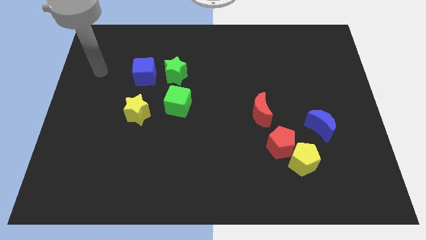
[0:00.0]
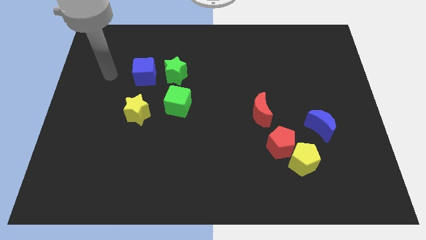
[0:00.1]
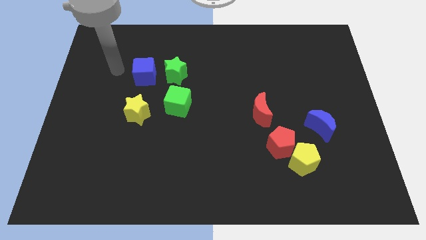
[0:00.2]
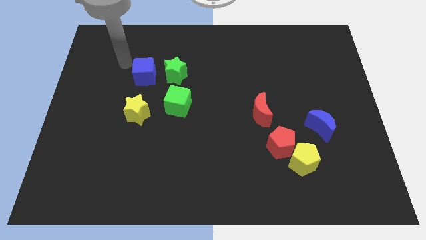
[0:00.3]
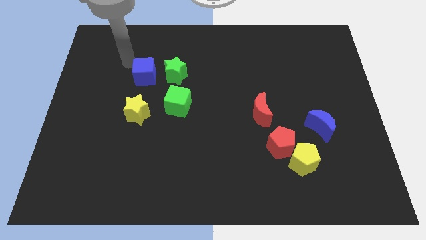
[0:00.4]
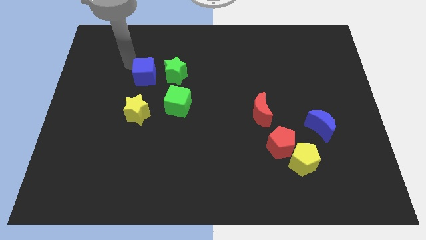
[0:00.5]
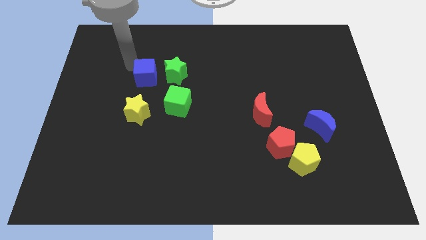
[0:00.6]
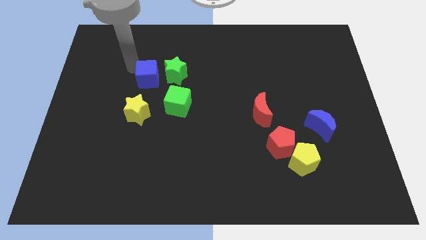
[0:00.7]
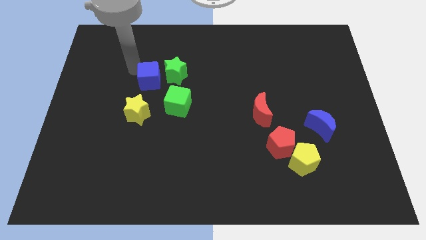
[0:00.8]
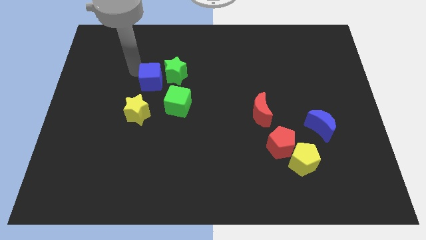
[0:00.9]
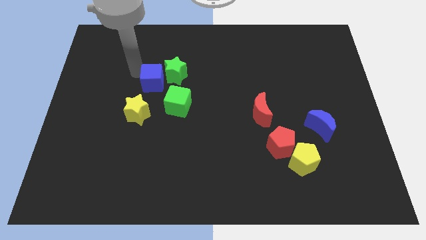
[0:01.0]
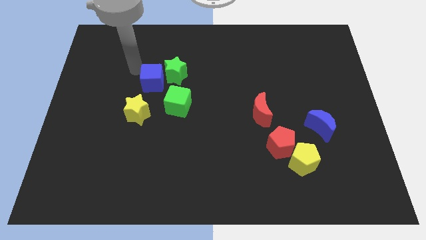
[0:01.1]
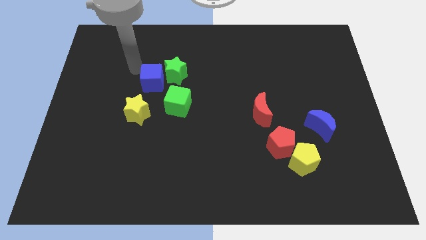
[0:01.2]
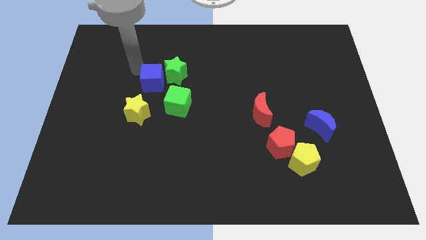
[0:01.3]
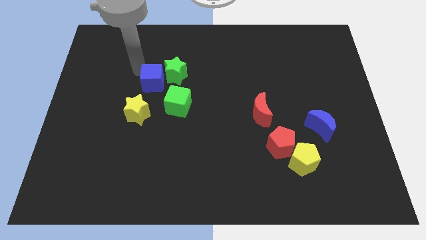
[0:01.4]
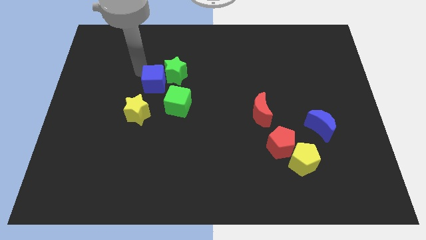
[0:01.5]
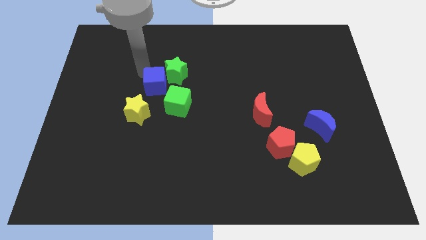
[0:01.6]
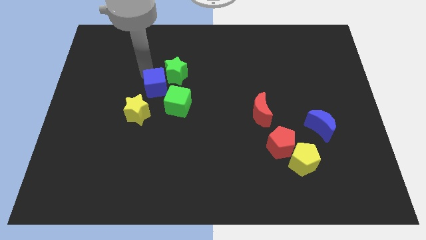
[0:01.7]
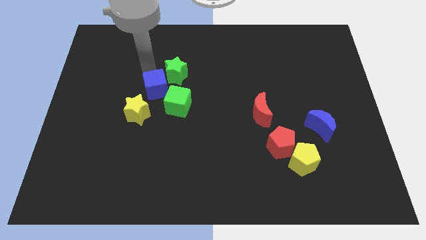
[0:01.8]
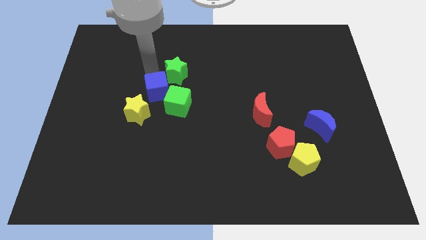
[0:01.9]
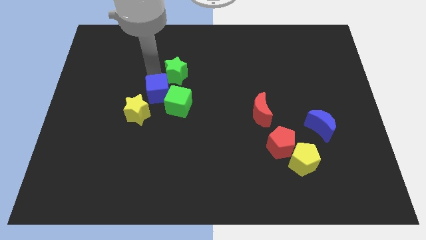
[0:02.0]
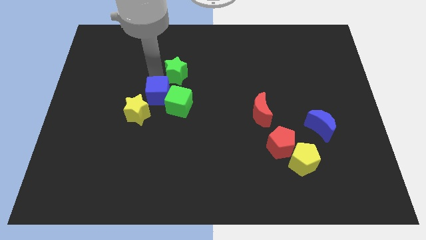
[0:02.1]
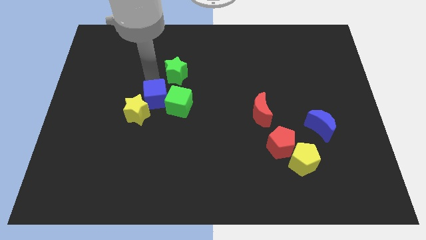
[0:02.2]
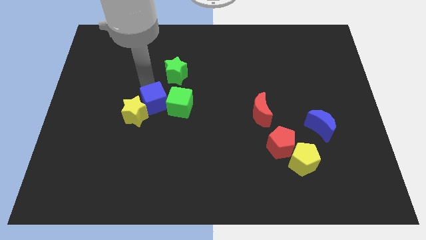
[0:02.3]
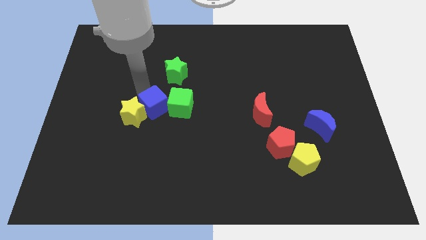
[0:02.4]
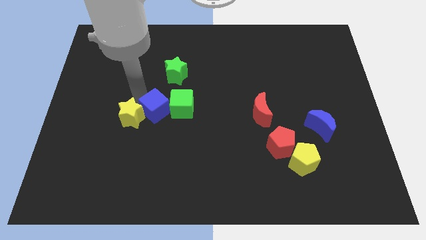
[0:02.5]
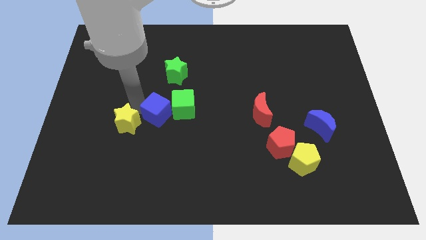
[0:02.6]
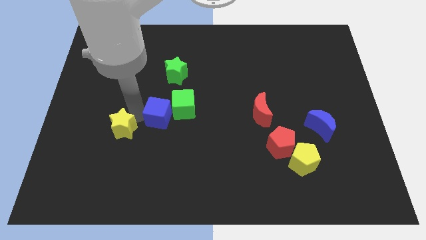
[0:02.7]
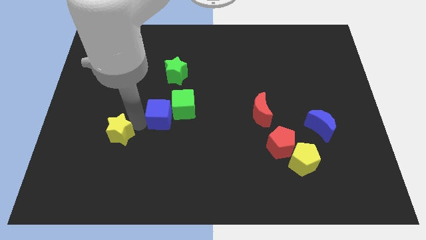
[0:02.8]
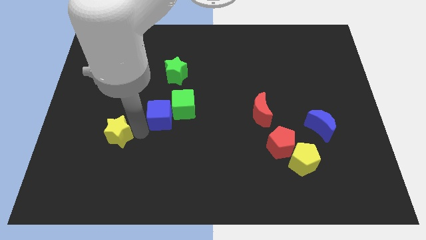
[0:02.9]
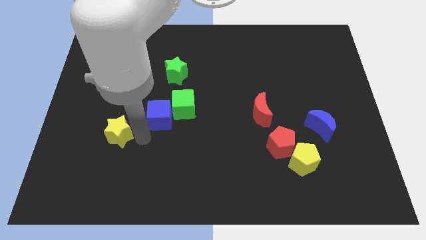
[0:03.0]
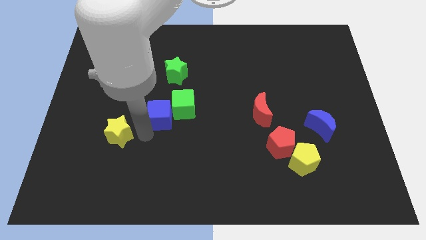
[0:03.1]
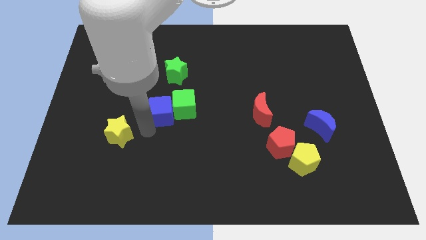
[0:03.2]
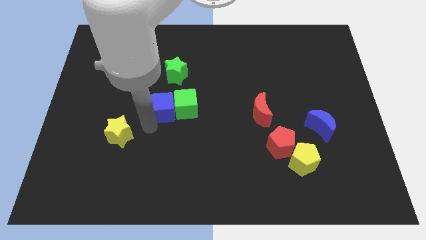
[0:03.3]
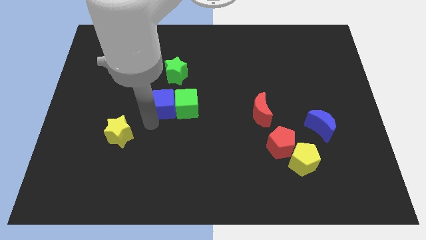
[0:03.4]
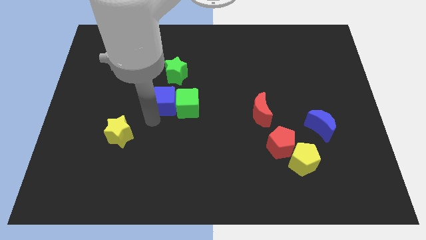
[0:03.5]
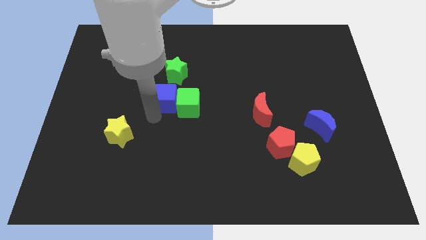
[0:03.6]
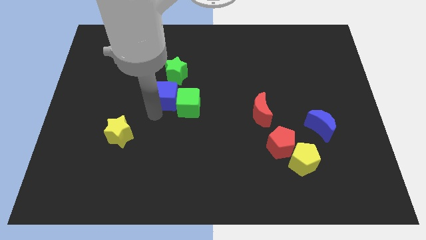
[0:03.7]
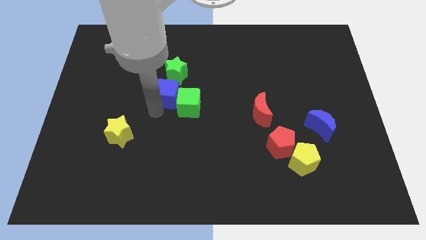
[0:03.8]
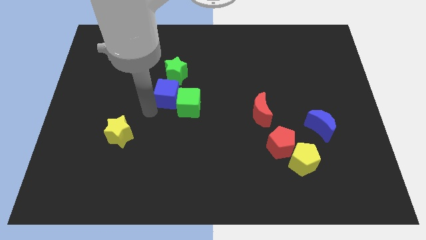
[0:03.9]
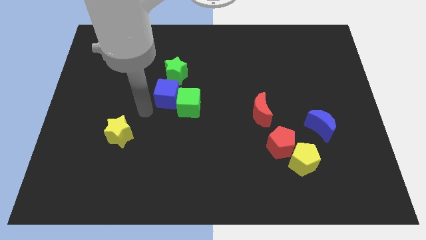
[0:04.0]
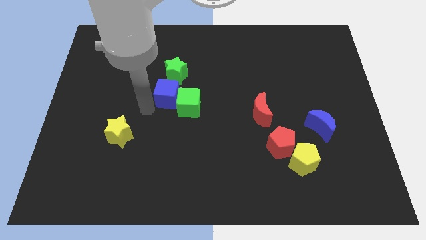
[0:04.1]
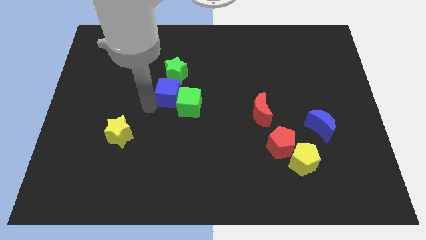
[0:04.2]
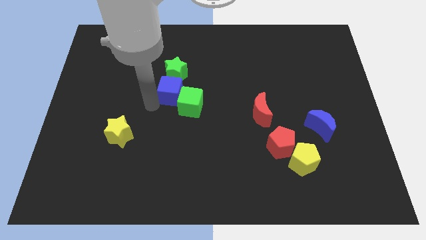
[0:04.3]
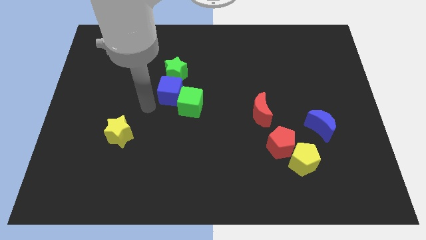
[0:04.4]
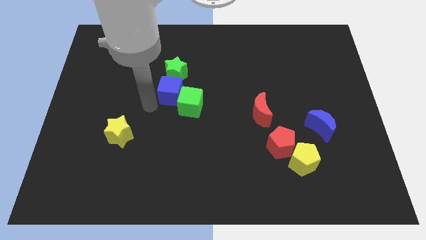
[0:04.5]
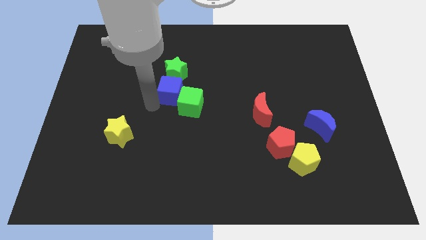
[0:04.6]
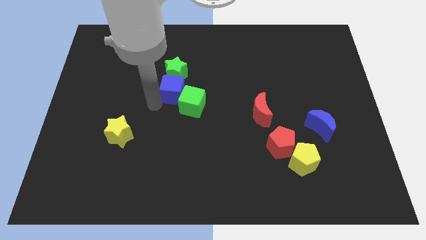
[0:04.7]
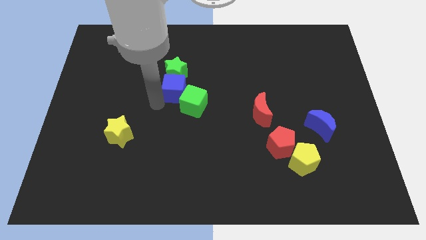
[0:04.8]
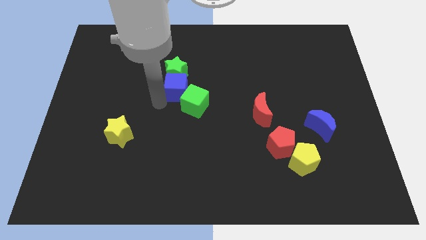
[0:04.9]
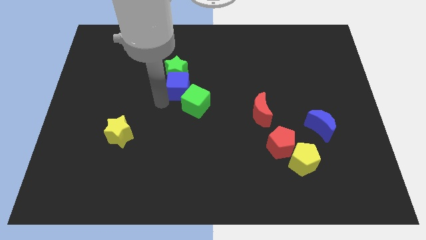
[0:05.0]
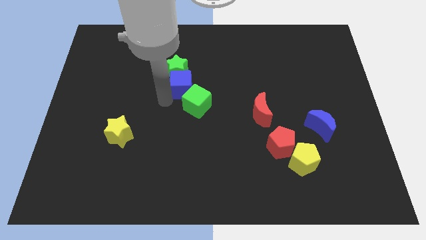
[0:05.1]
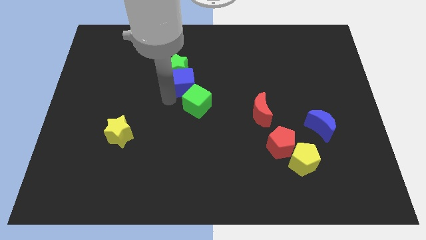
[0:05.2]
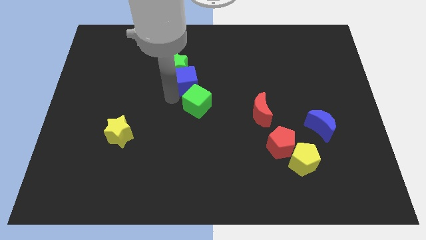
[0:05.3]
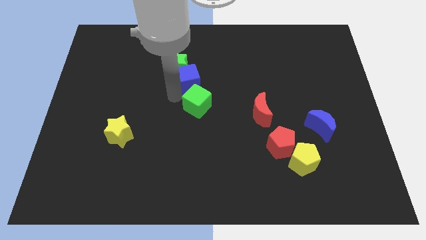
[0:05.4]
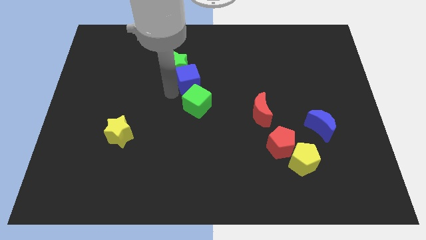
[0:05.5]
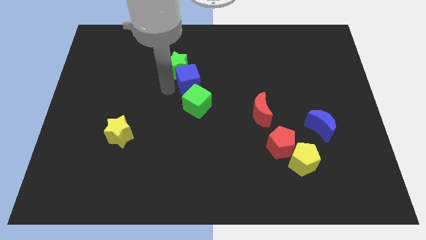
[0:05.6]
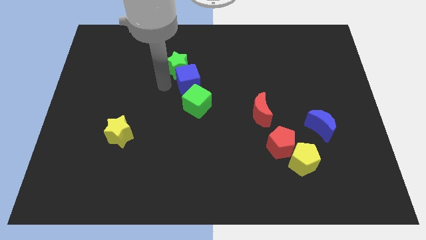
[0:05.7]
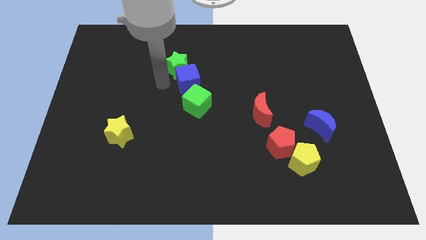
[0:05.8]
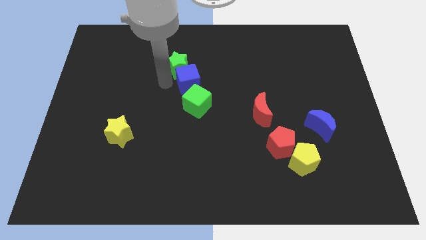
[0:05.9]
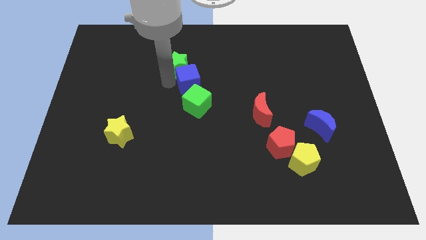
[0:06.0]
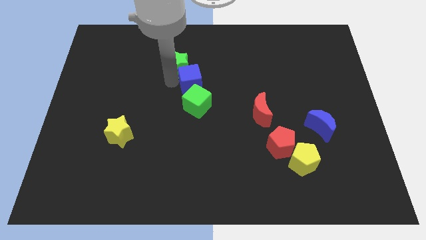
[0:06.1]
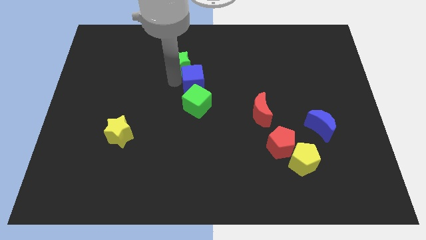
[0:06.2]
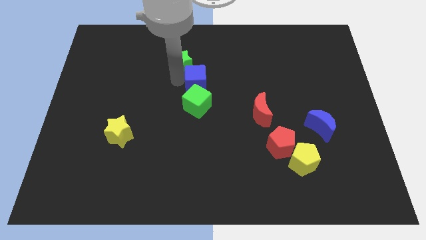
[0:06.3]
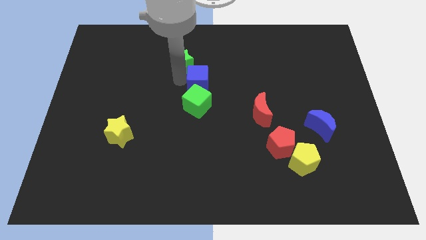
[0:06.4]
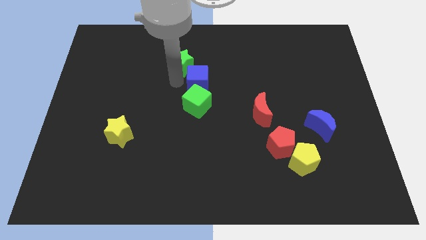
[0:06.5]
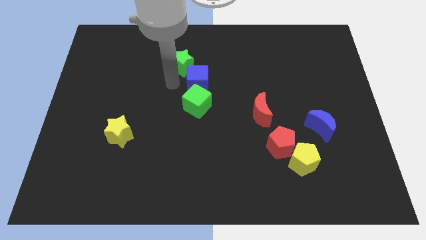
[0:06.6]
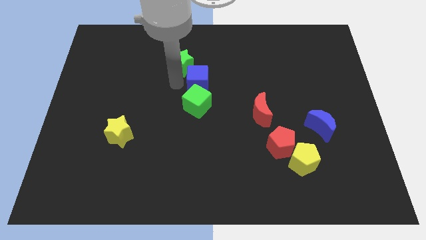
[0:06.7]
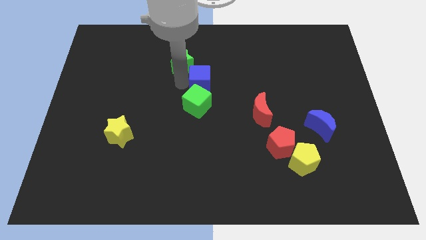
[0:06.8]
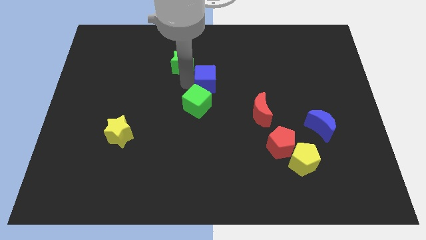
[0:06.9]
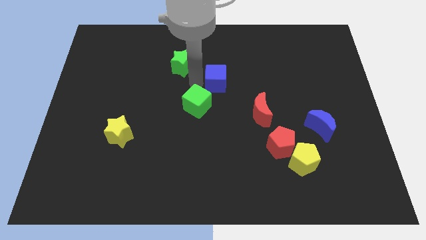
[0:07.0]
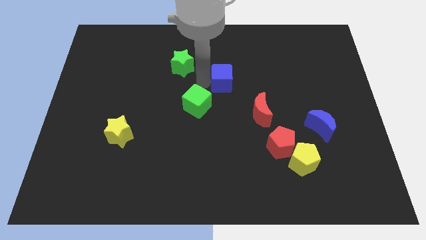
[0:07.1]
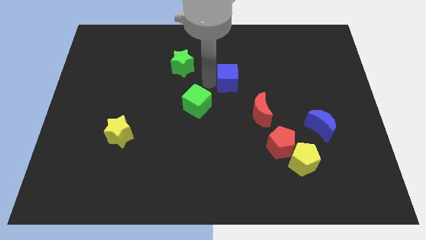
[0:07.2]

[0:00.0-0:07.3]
move the blue cube to the right

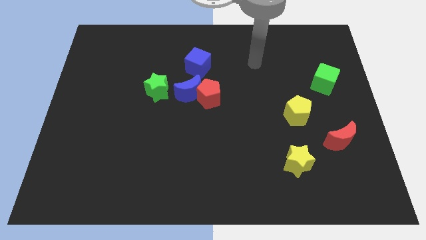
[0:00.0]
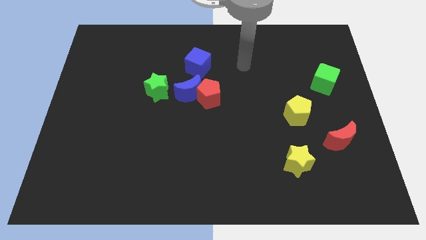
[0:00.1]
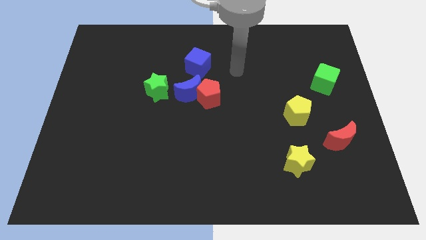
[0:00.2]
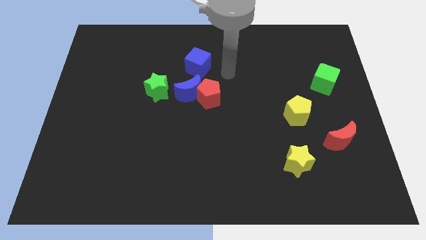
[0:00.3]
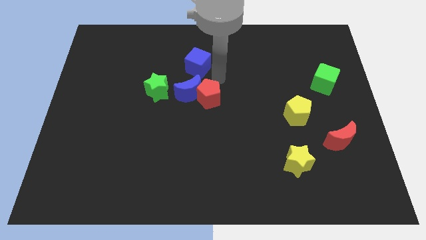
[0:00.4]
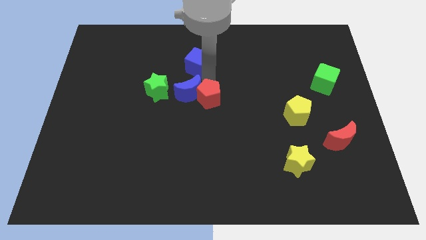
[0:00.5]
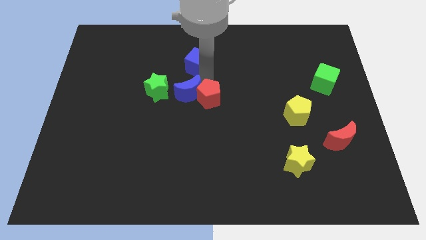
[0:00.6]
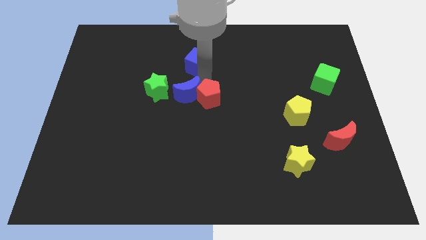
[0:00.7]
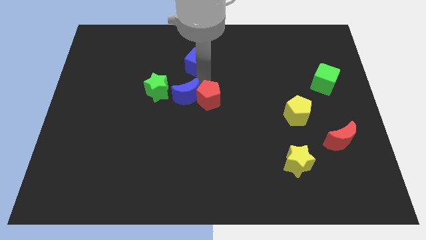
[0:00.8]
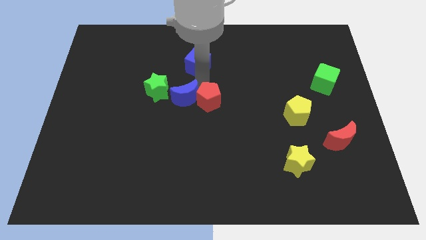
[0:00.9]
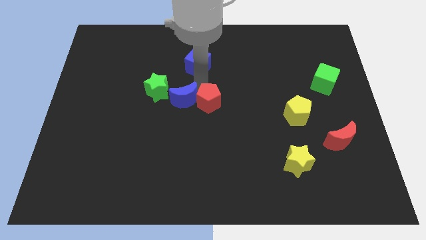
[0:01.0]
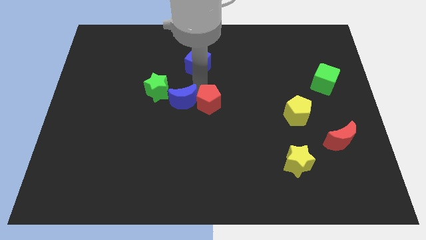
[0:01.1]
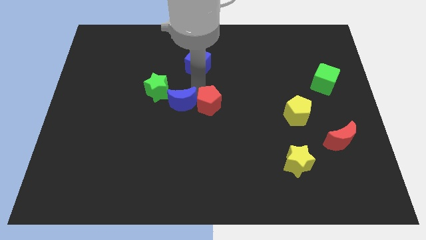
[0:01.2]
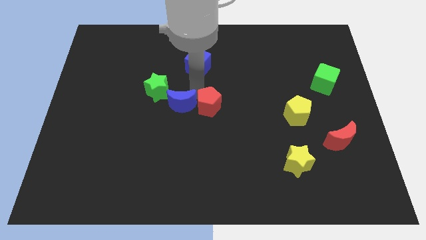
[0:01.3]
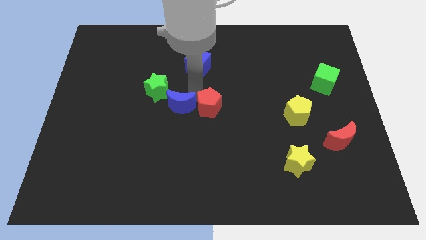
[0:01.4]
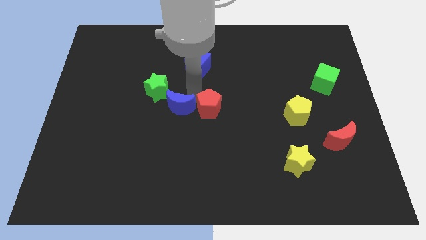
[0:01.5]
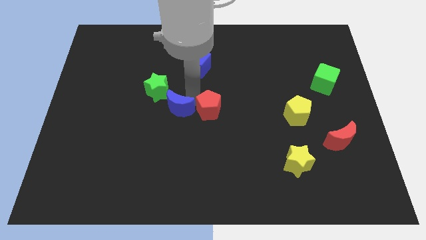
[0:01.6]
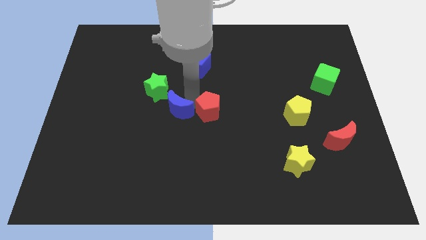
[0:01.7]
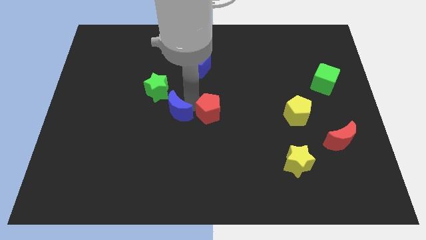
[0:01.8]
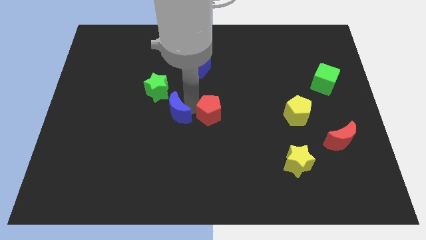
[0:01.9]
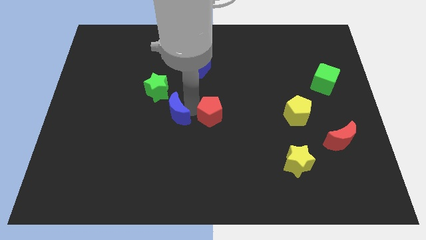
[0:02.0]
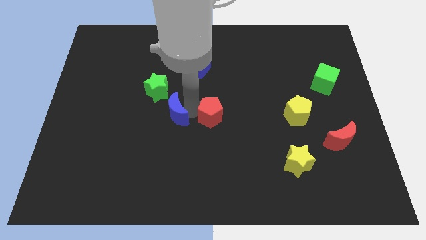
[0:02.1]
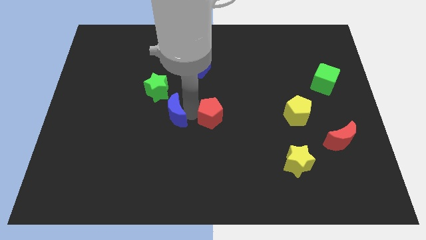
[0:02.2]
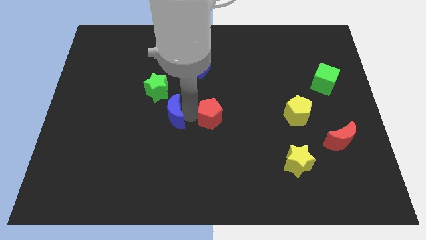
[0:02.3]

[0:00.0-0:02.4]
push the blue moon down and left a bit
